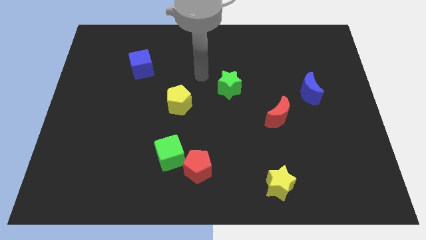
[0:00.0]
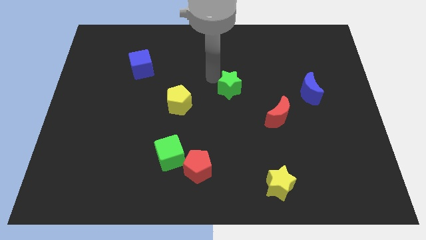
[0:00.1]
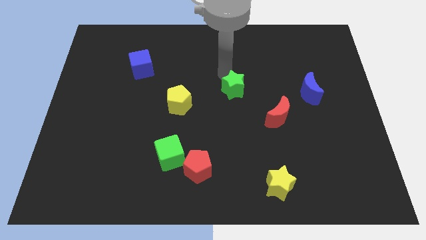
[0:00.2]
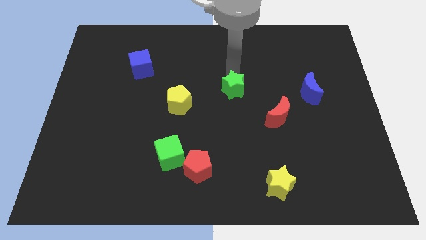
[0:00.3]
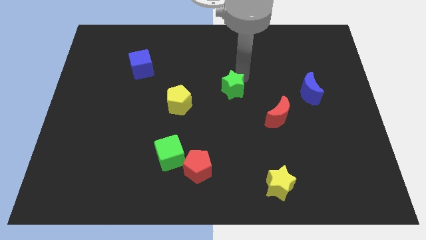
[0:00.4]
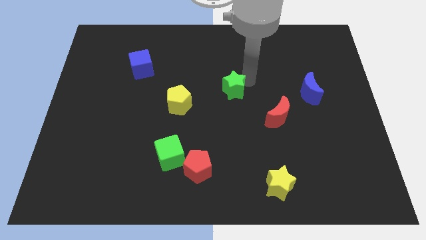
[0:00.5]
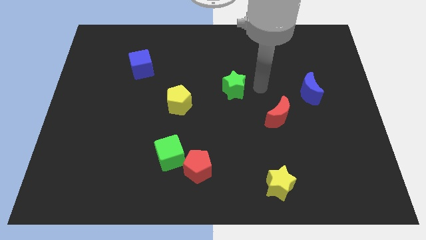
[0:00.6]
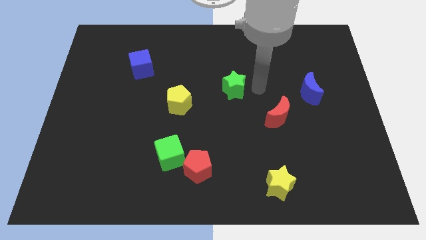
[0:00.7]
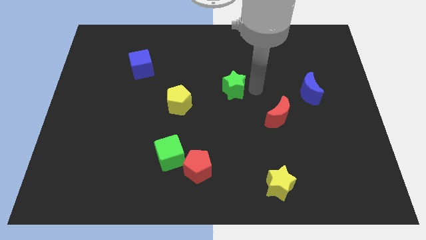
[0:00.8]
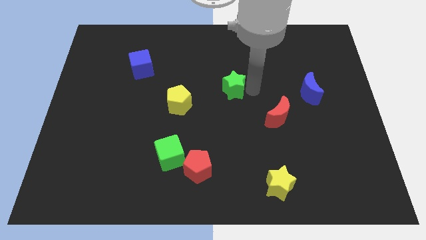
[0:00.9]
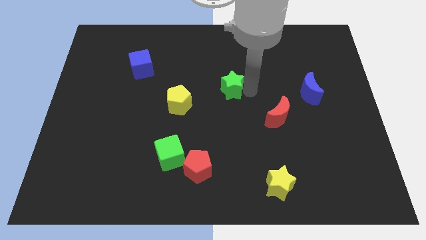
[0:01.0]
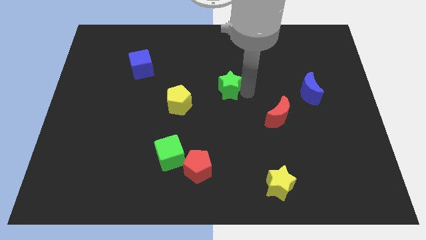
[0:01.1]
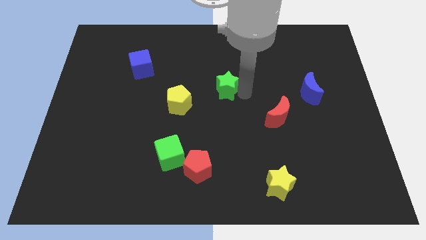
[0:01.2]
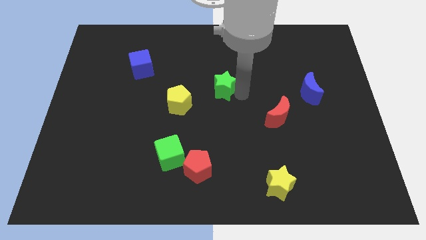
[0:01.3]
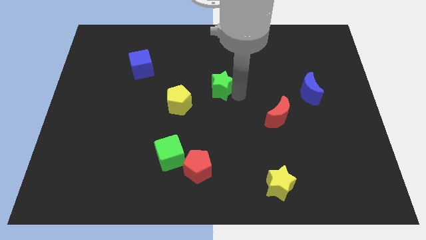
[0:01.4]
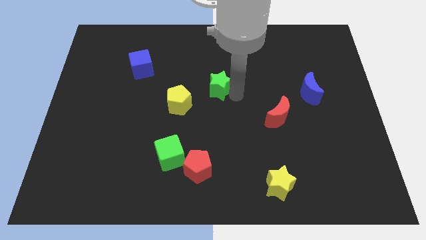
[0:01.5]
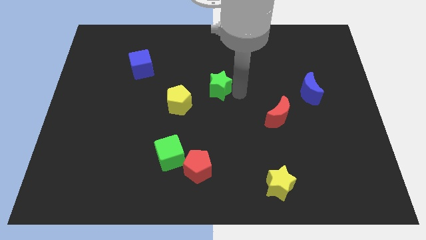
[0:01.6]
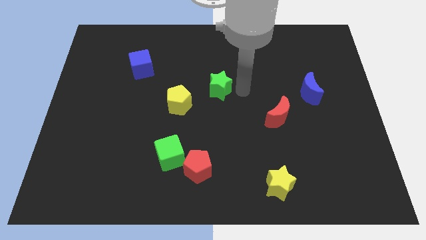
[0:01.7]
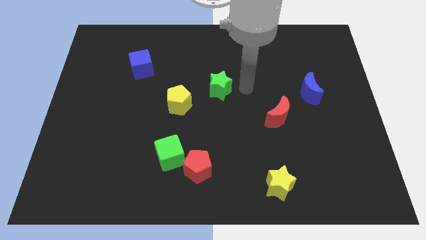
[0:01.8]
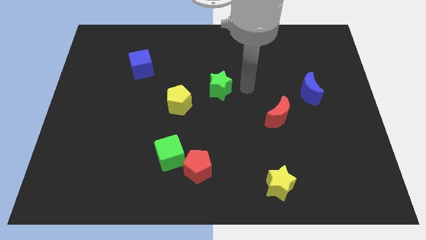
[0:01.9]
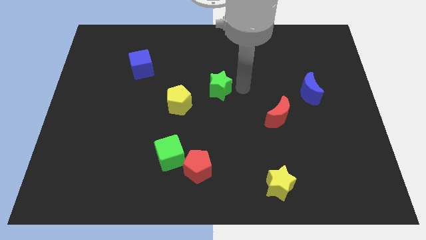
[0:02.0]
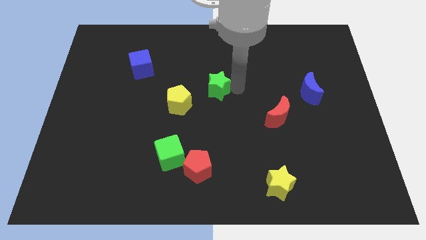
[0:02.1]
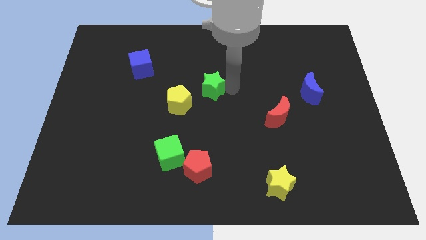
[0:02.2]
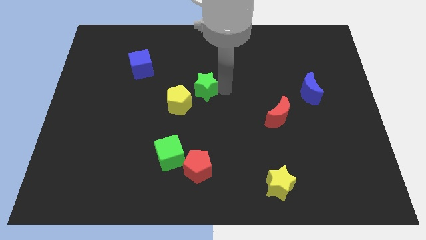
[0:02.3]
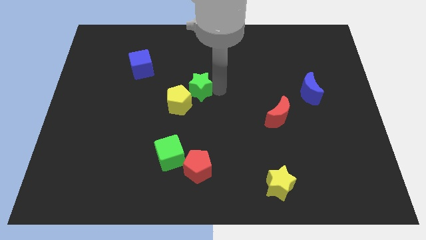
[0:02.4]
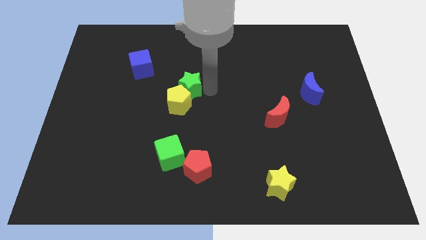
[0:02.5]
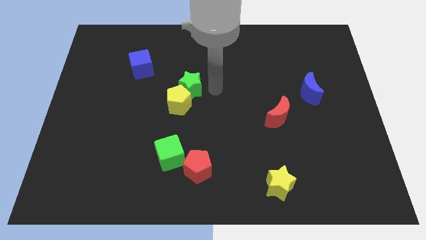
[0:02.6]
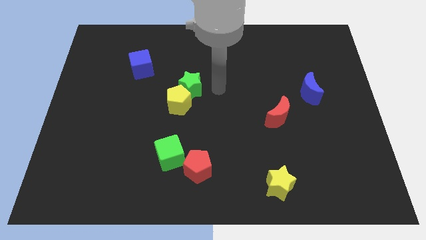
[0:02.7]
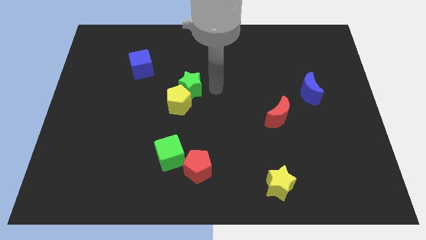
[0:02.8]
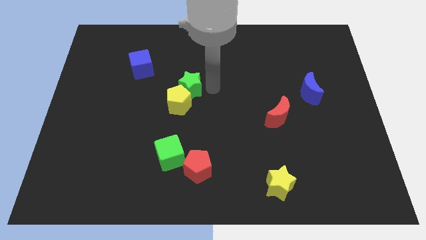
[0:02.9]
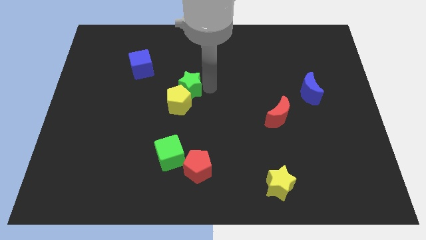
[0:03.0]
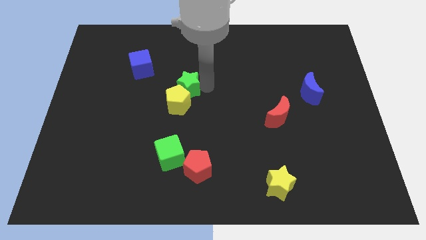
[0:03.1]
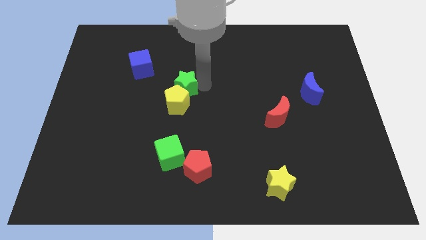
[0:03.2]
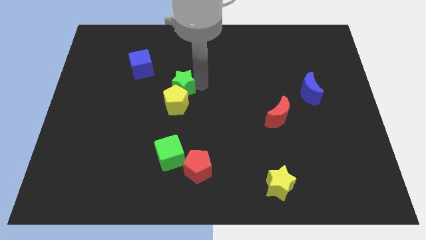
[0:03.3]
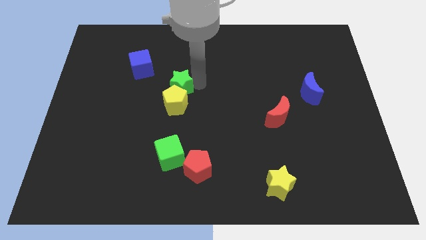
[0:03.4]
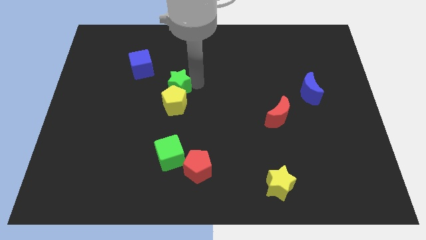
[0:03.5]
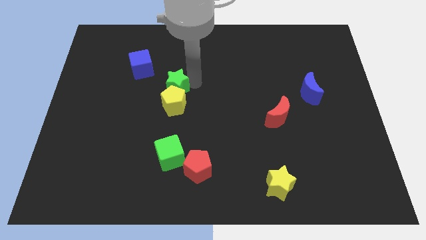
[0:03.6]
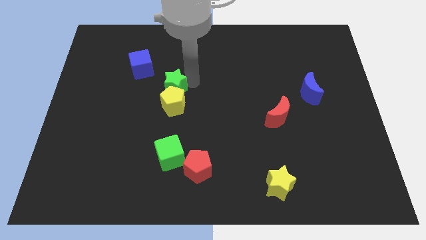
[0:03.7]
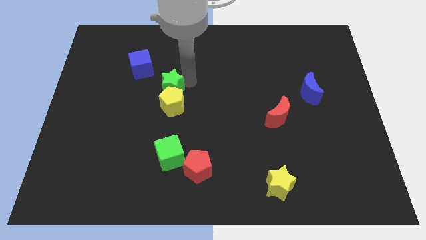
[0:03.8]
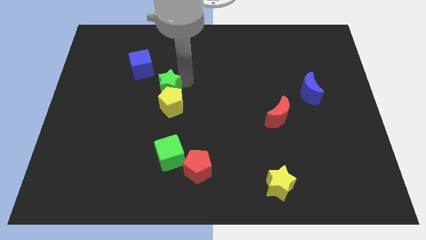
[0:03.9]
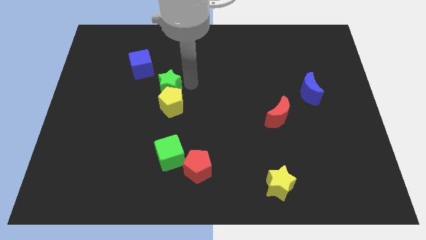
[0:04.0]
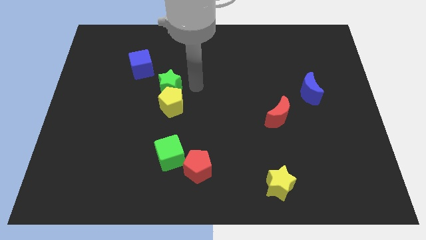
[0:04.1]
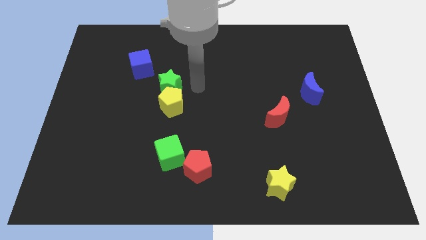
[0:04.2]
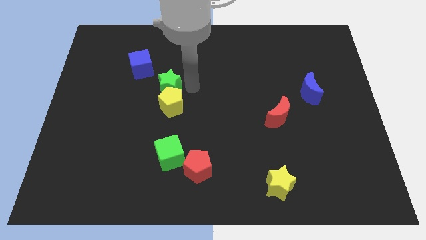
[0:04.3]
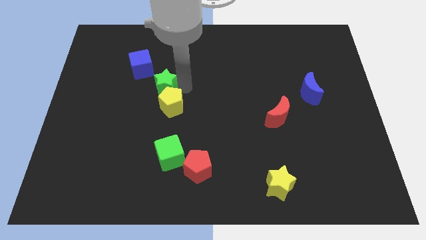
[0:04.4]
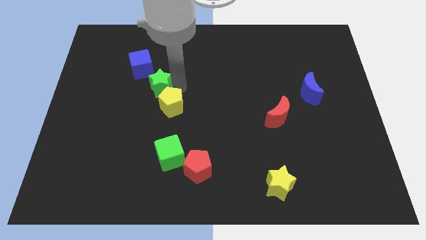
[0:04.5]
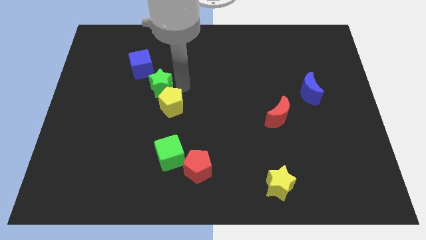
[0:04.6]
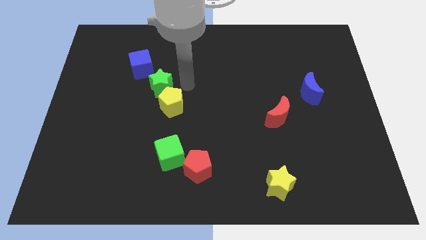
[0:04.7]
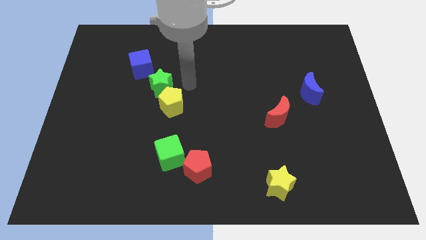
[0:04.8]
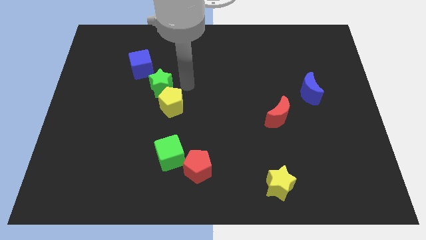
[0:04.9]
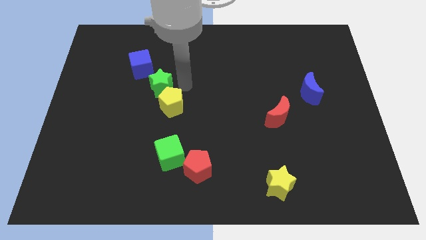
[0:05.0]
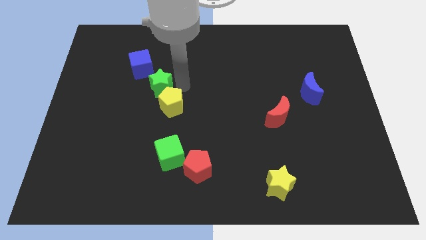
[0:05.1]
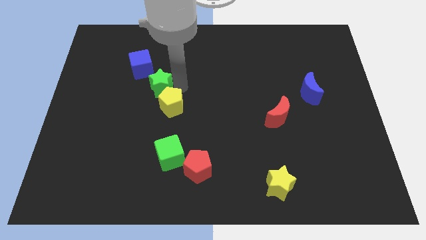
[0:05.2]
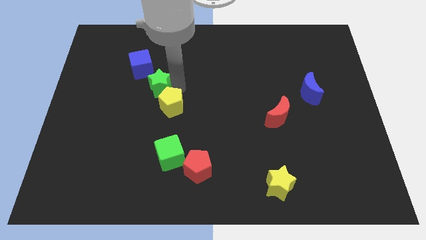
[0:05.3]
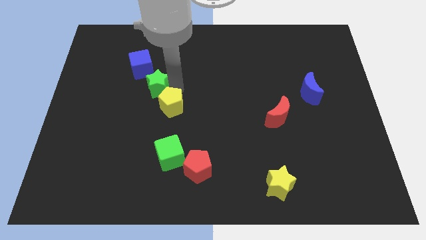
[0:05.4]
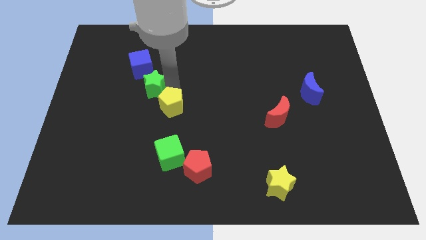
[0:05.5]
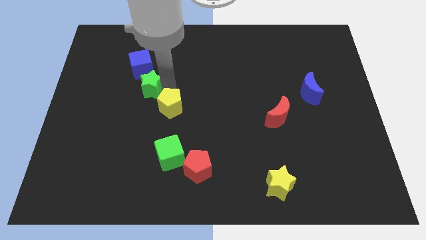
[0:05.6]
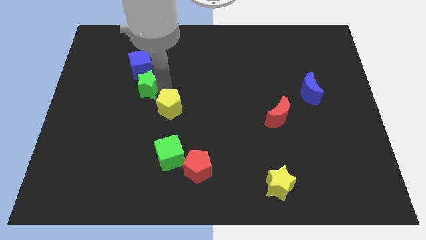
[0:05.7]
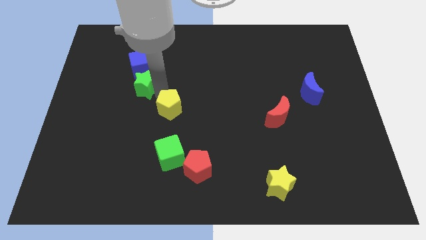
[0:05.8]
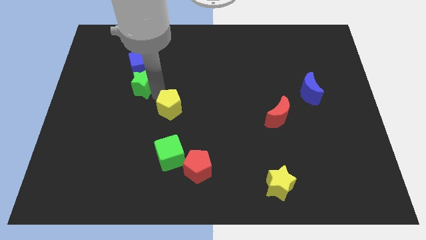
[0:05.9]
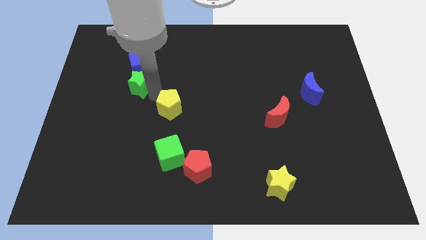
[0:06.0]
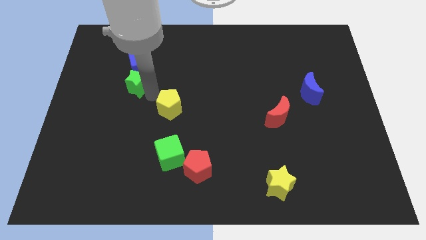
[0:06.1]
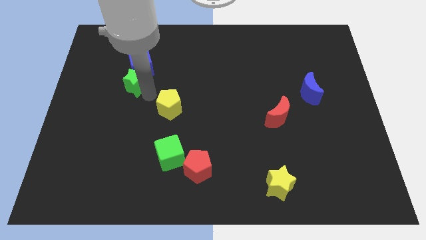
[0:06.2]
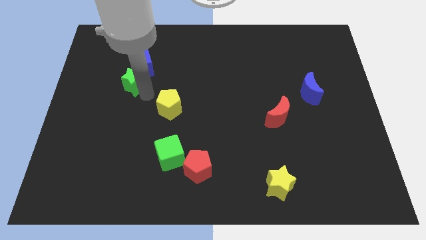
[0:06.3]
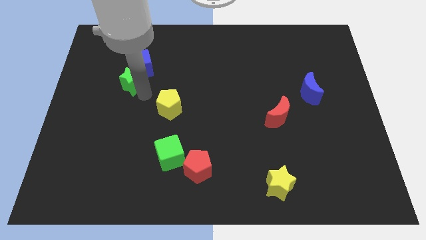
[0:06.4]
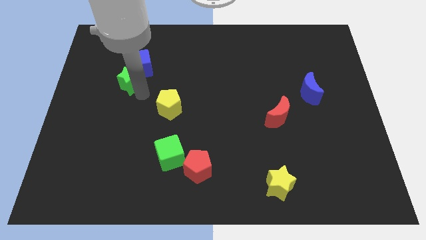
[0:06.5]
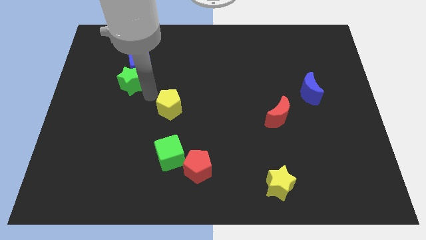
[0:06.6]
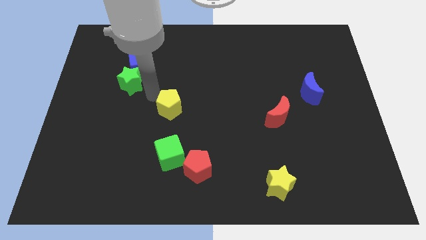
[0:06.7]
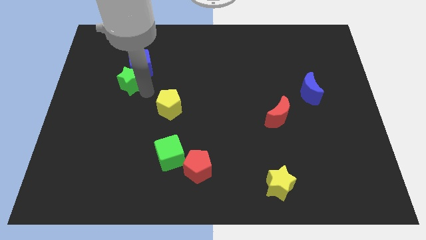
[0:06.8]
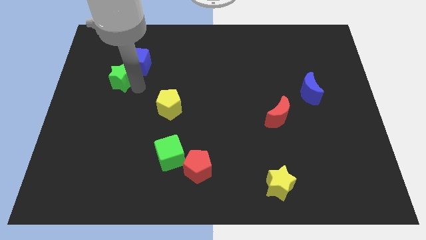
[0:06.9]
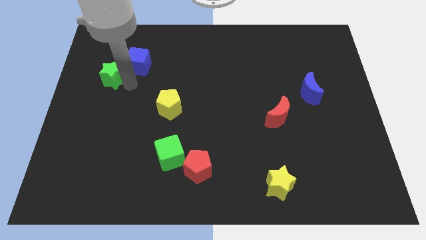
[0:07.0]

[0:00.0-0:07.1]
push the green star to the left of the blue cube
